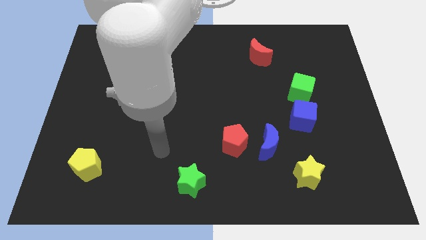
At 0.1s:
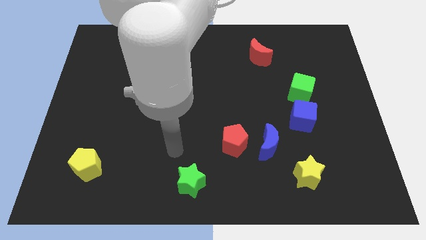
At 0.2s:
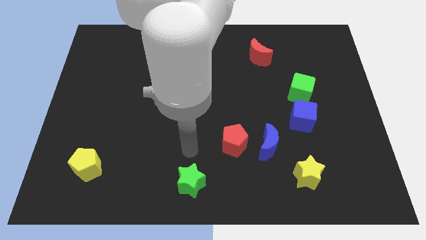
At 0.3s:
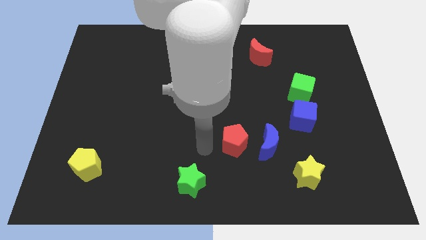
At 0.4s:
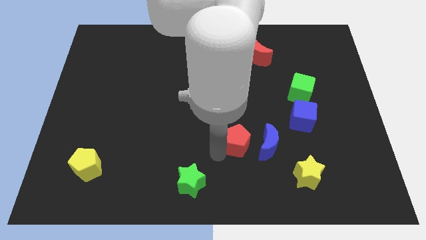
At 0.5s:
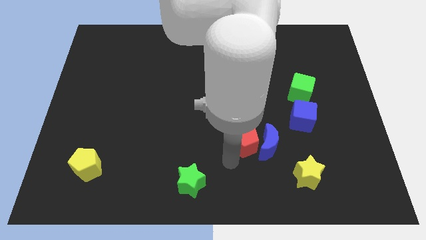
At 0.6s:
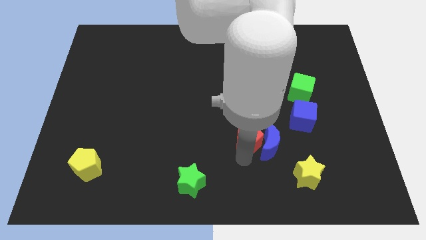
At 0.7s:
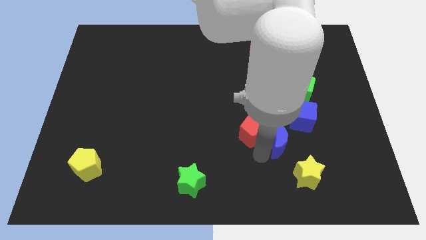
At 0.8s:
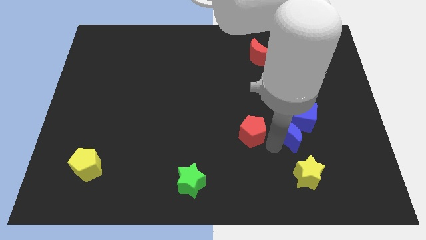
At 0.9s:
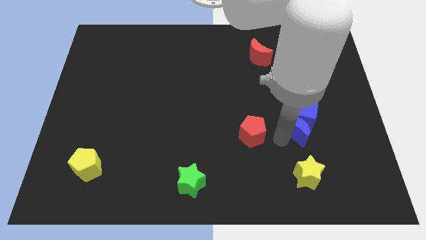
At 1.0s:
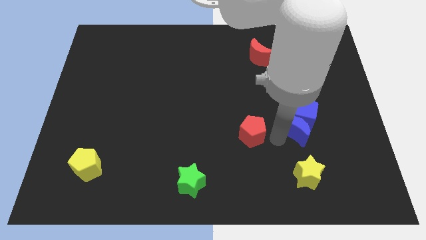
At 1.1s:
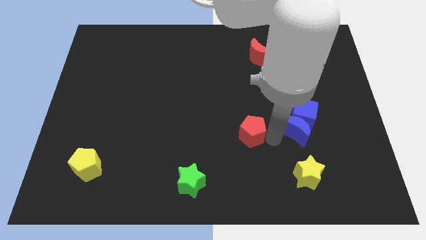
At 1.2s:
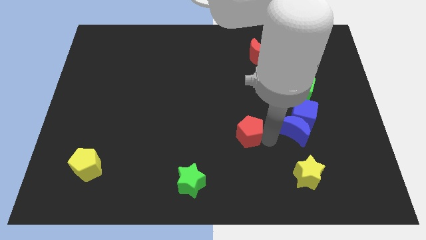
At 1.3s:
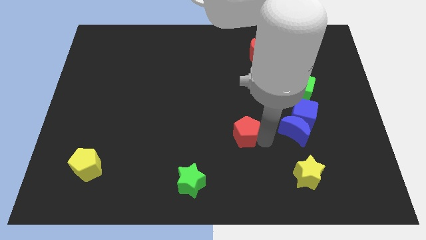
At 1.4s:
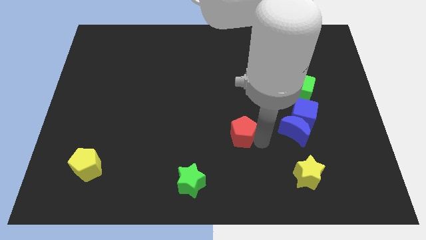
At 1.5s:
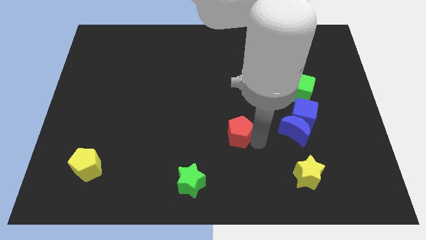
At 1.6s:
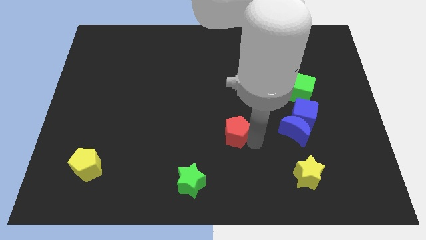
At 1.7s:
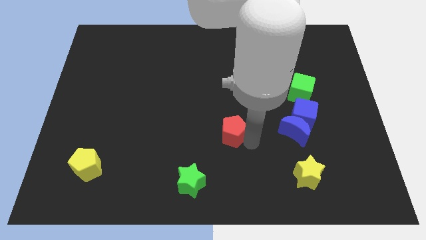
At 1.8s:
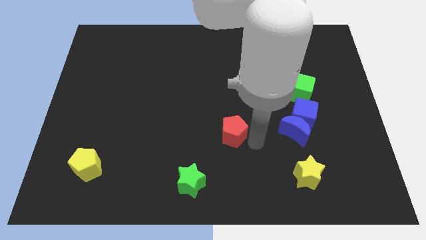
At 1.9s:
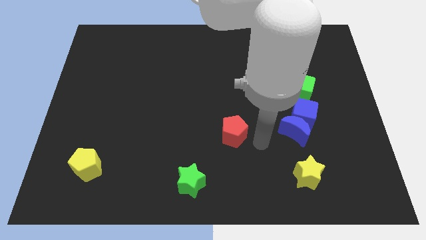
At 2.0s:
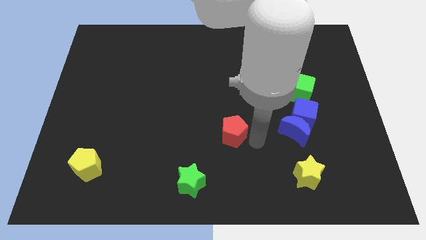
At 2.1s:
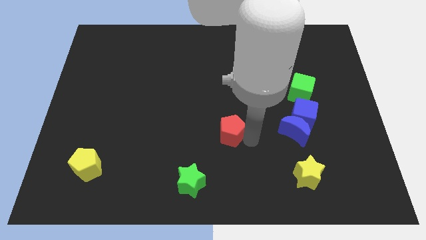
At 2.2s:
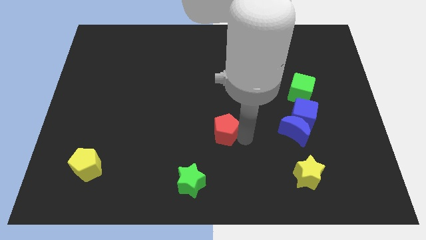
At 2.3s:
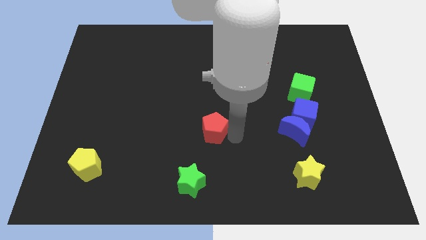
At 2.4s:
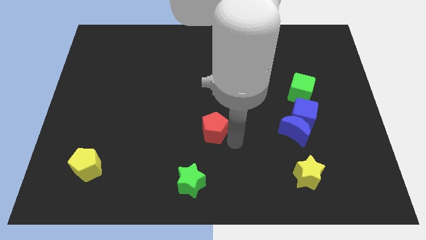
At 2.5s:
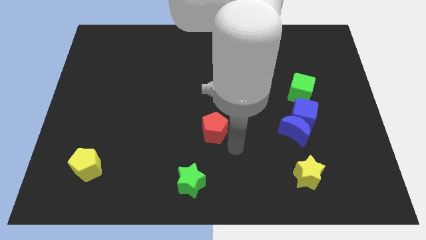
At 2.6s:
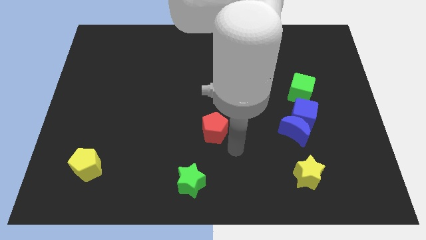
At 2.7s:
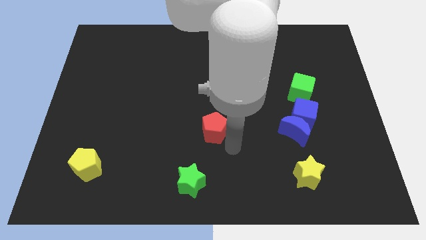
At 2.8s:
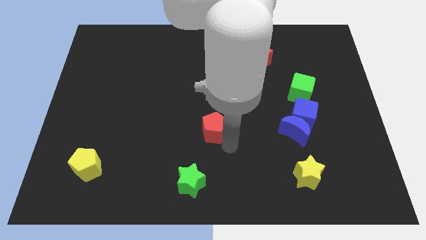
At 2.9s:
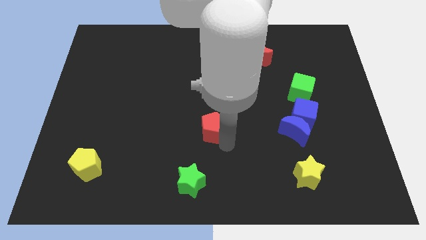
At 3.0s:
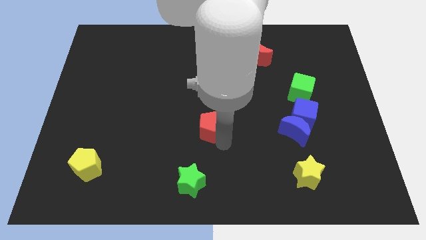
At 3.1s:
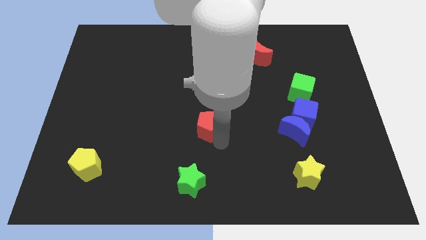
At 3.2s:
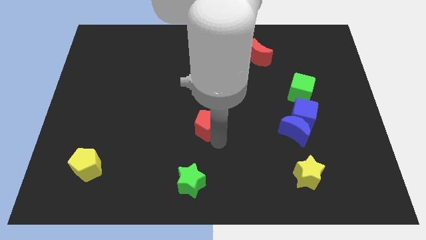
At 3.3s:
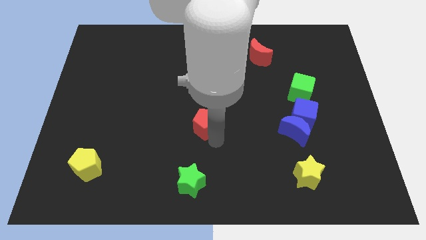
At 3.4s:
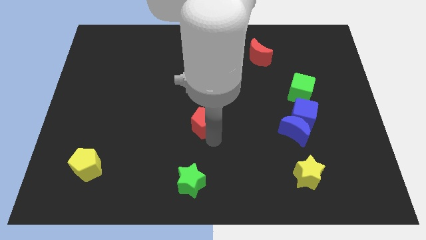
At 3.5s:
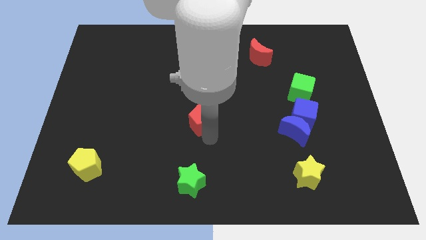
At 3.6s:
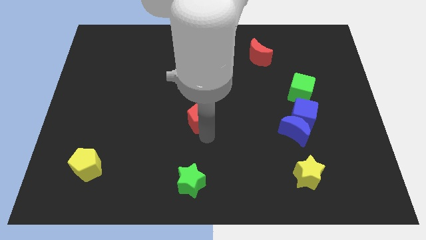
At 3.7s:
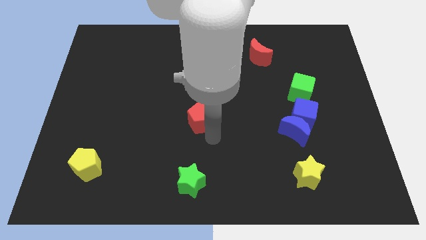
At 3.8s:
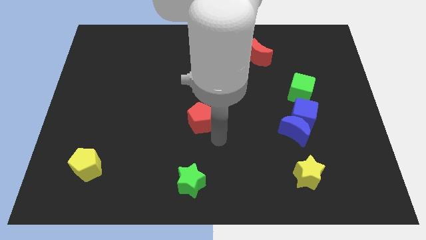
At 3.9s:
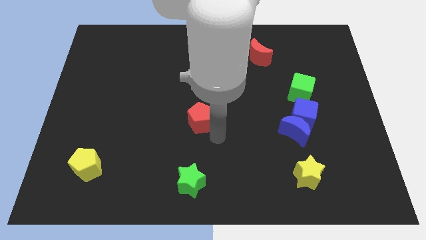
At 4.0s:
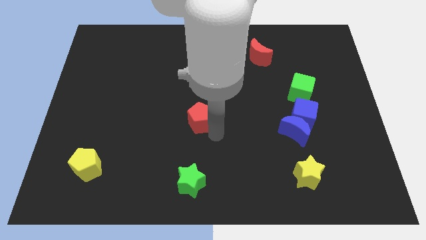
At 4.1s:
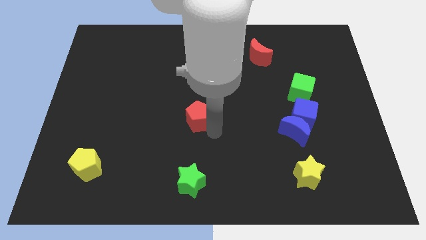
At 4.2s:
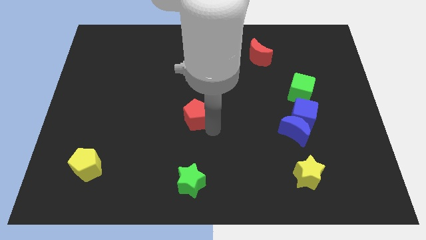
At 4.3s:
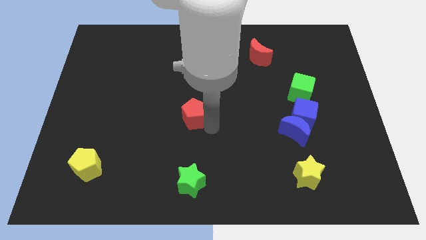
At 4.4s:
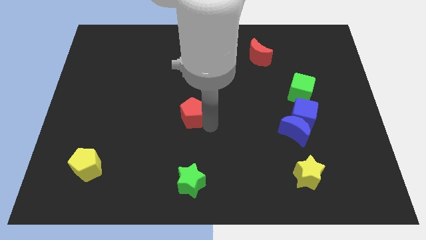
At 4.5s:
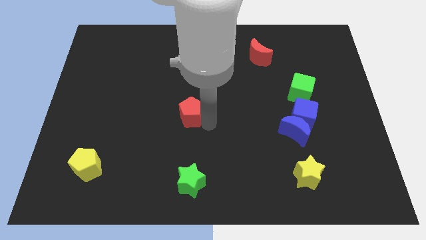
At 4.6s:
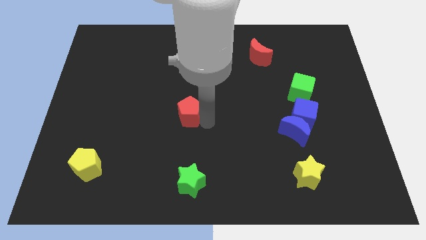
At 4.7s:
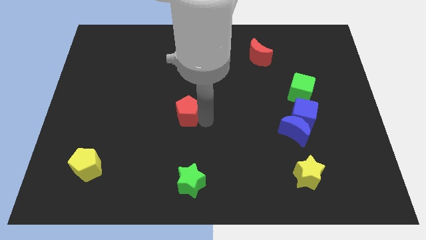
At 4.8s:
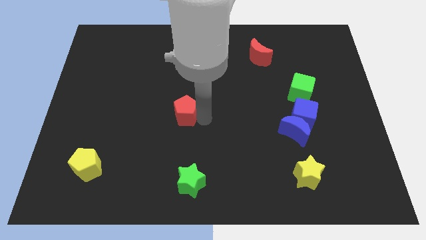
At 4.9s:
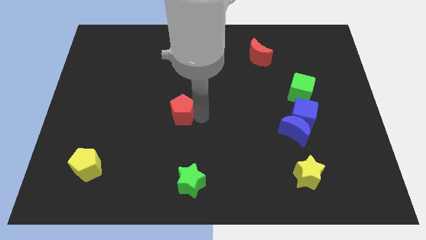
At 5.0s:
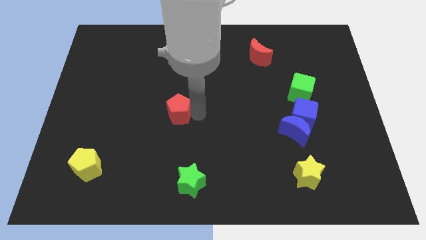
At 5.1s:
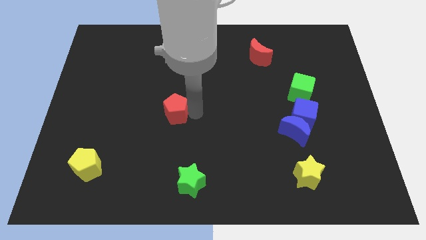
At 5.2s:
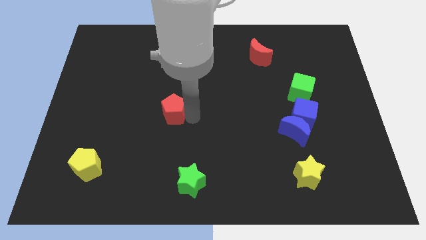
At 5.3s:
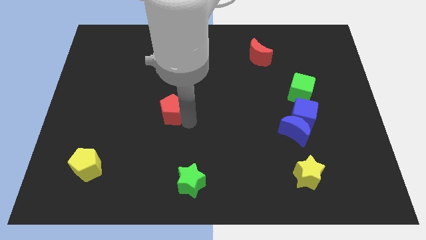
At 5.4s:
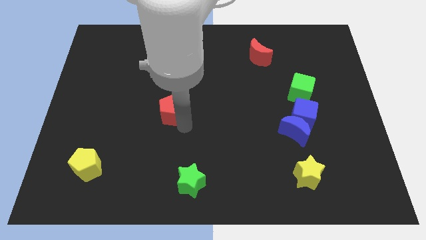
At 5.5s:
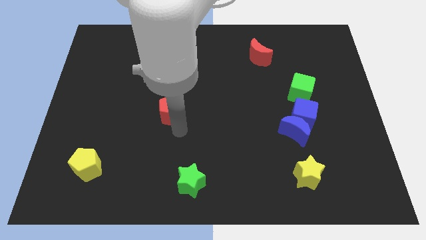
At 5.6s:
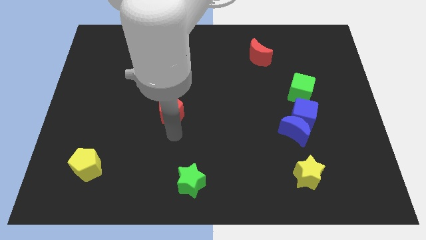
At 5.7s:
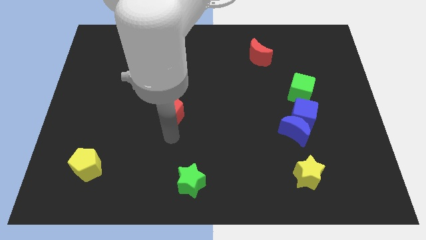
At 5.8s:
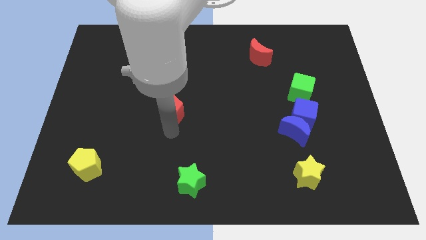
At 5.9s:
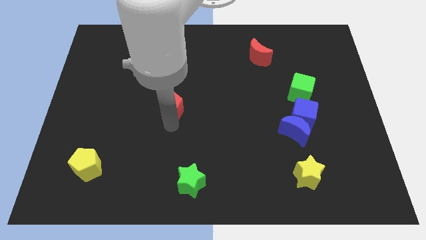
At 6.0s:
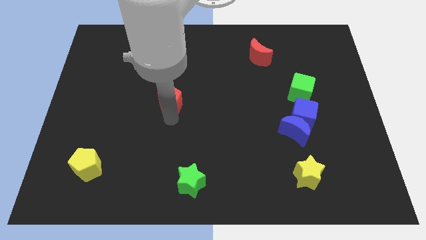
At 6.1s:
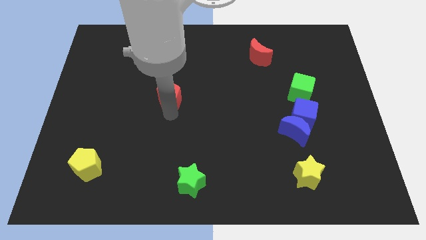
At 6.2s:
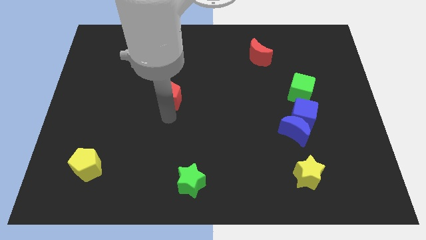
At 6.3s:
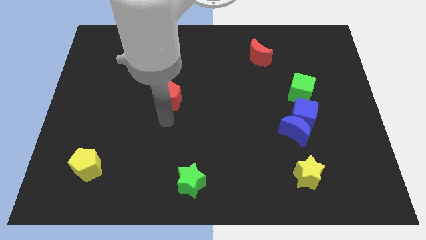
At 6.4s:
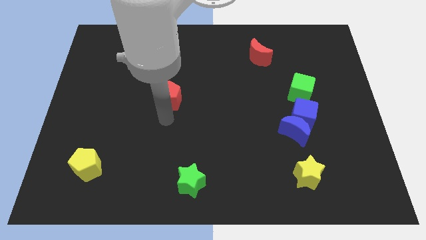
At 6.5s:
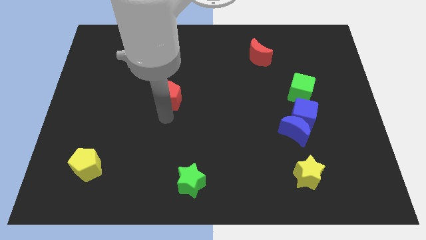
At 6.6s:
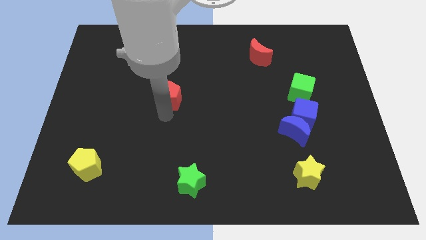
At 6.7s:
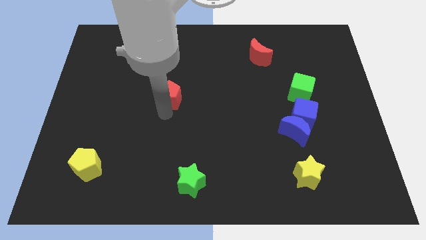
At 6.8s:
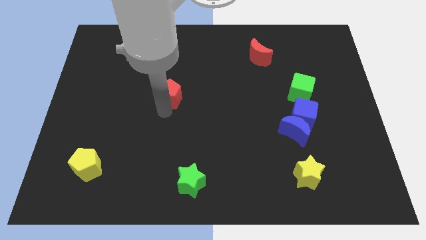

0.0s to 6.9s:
push the red pentagon upwards and left

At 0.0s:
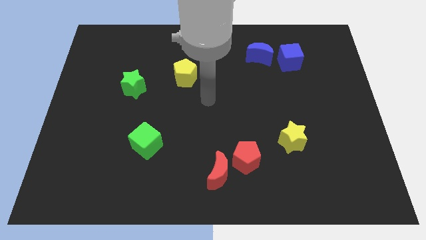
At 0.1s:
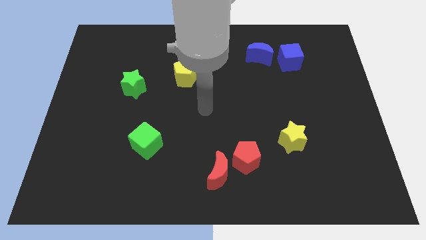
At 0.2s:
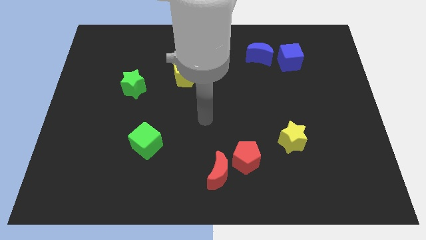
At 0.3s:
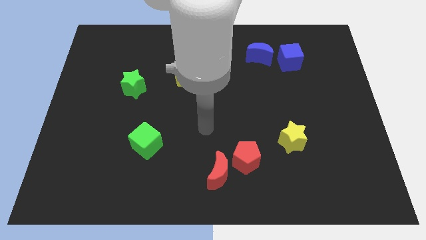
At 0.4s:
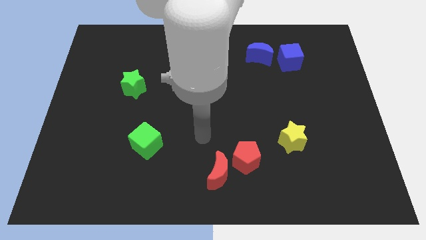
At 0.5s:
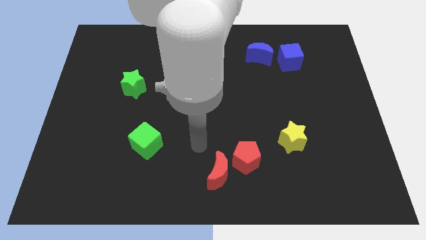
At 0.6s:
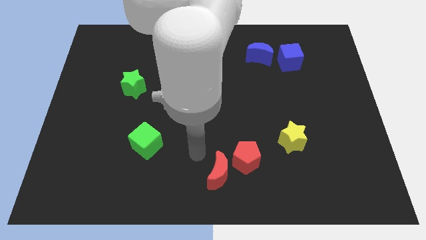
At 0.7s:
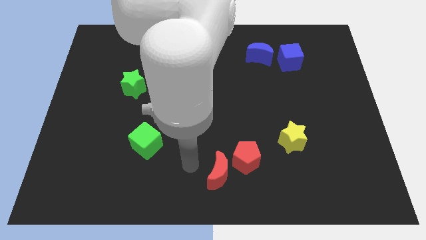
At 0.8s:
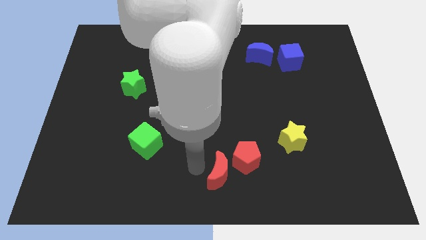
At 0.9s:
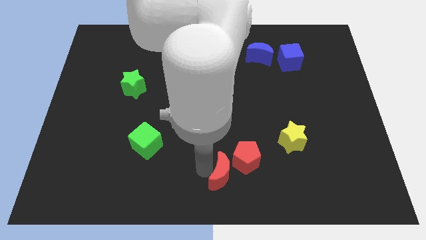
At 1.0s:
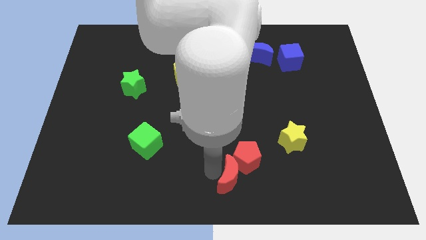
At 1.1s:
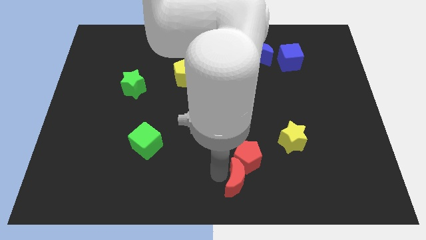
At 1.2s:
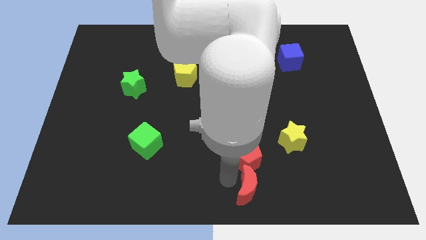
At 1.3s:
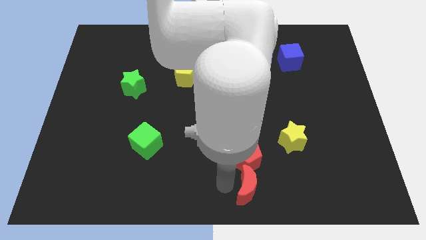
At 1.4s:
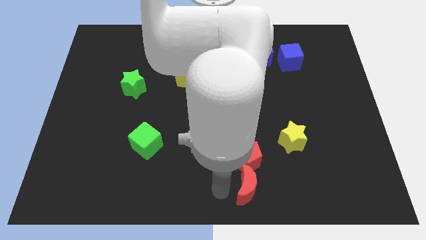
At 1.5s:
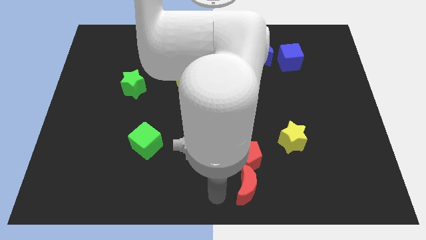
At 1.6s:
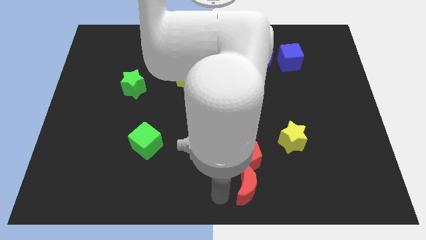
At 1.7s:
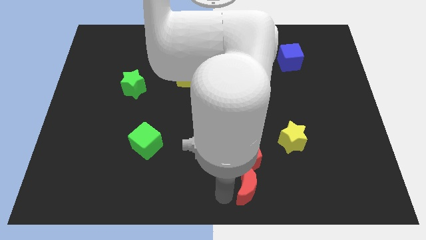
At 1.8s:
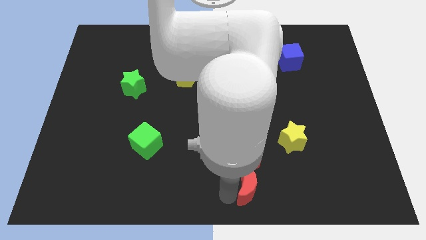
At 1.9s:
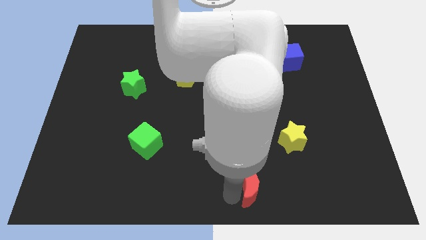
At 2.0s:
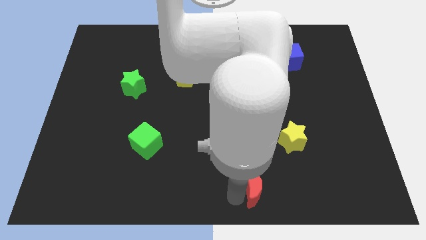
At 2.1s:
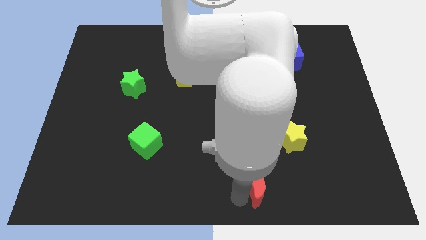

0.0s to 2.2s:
slide the red moon a little right
